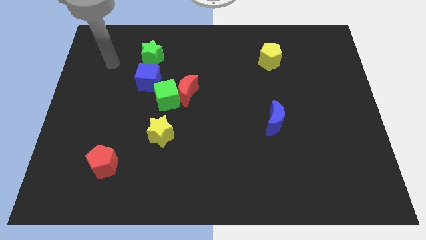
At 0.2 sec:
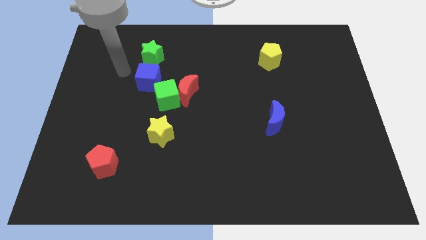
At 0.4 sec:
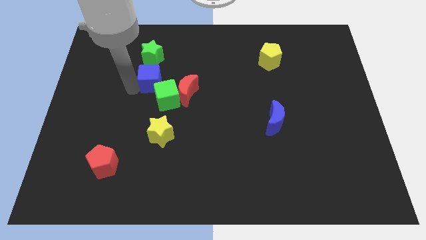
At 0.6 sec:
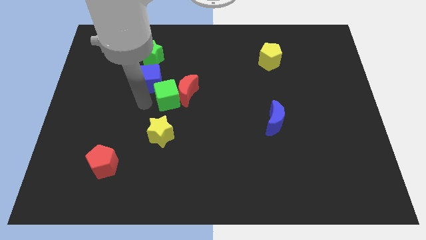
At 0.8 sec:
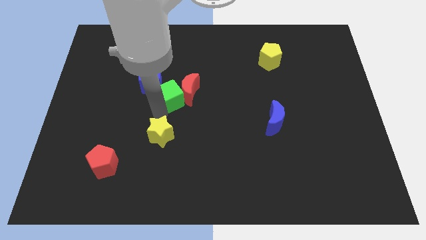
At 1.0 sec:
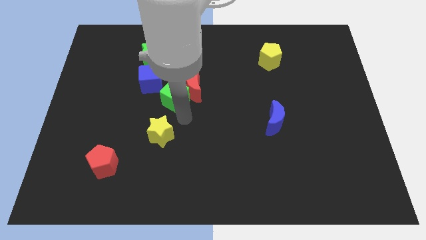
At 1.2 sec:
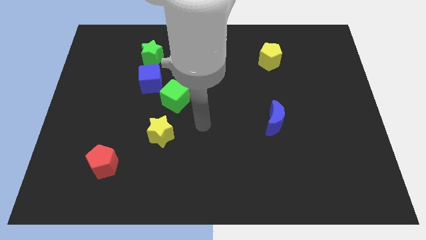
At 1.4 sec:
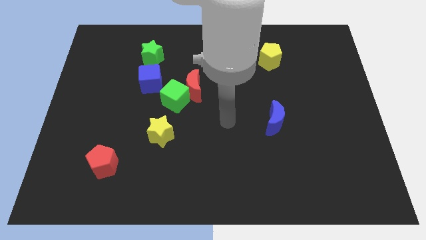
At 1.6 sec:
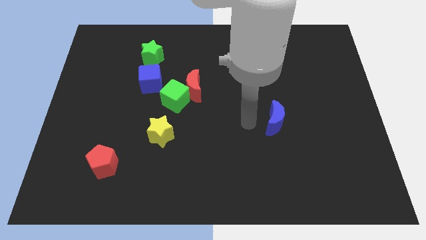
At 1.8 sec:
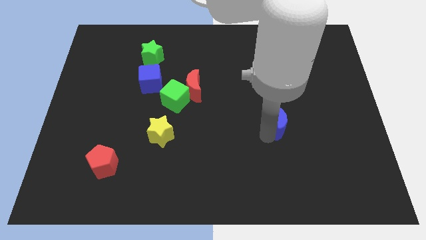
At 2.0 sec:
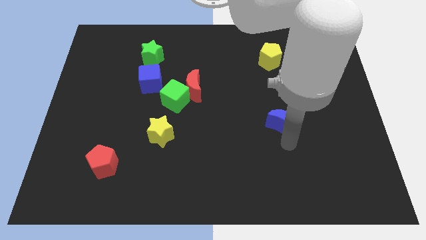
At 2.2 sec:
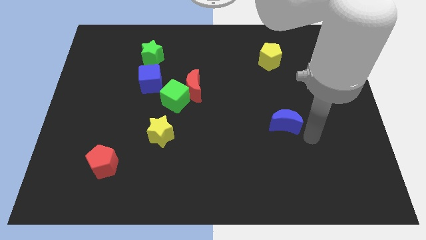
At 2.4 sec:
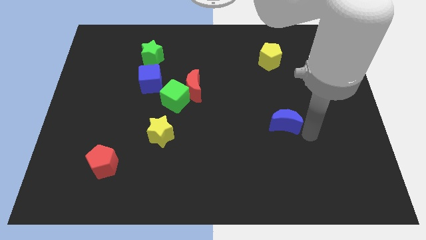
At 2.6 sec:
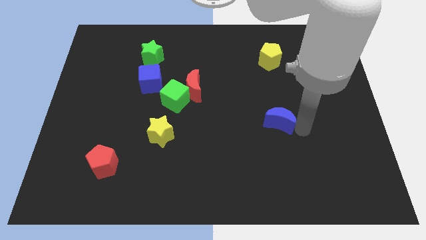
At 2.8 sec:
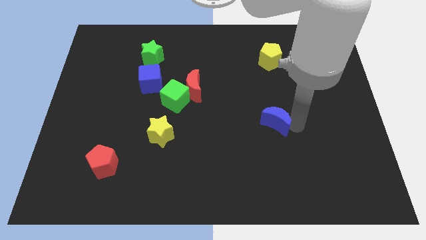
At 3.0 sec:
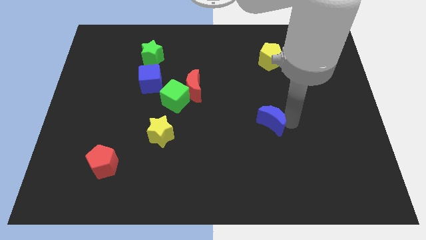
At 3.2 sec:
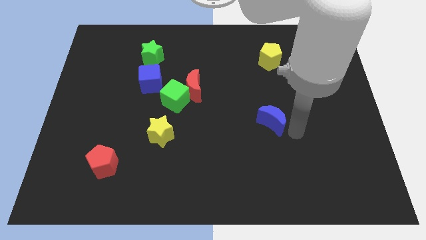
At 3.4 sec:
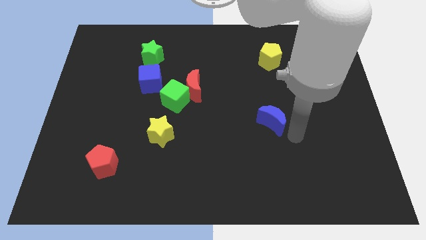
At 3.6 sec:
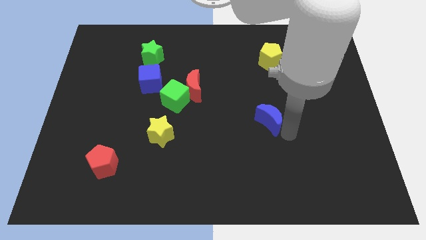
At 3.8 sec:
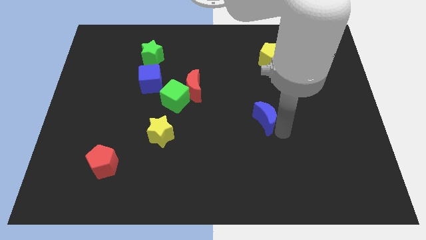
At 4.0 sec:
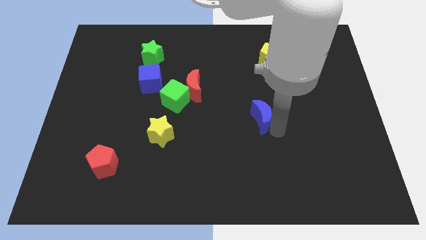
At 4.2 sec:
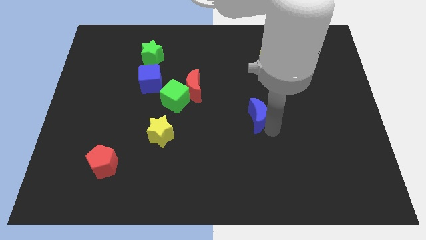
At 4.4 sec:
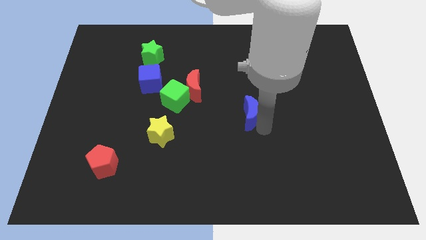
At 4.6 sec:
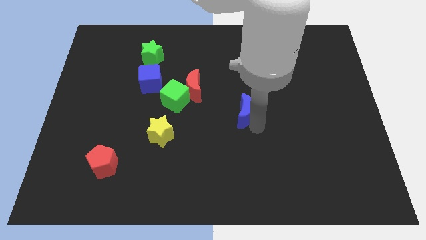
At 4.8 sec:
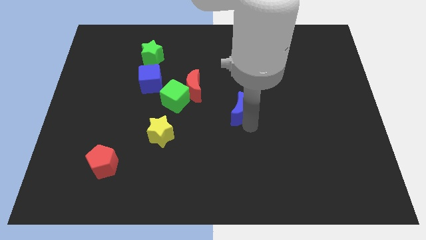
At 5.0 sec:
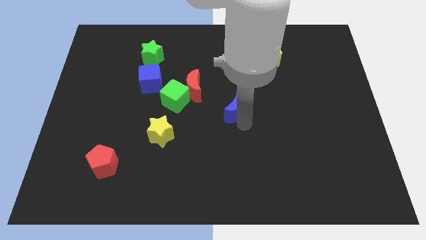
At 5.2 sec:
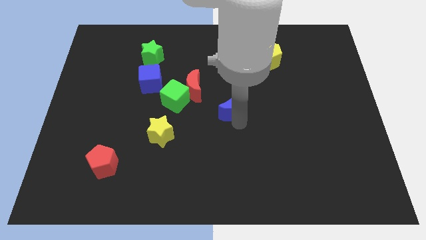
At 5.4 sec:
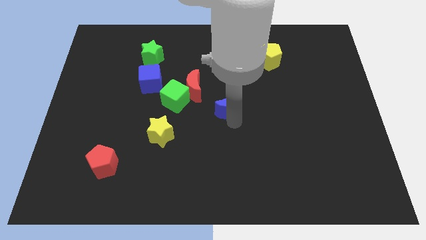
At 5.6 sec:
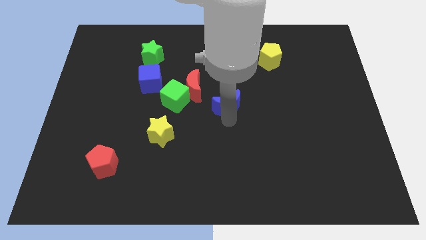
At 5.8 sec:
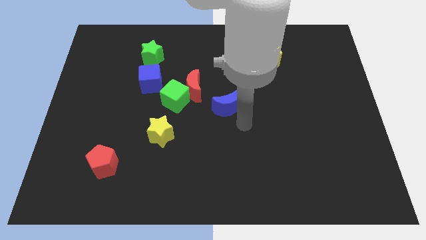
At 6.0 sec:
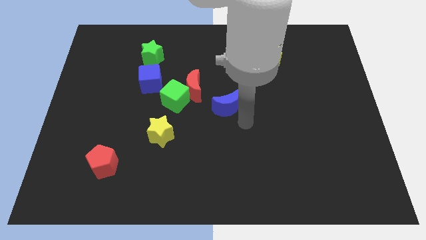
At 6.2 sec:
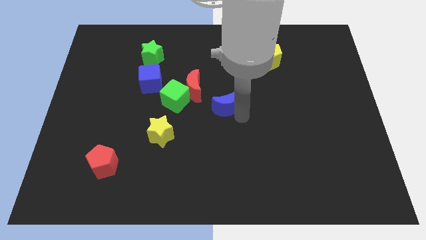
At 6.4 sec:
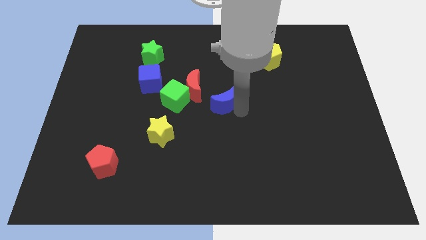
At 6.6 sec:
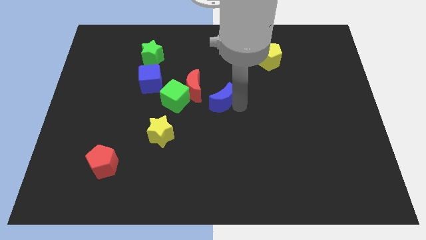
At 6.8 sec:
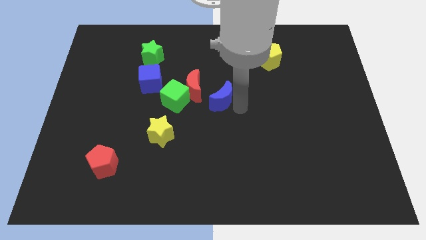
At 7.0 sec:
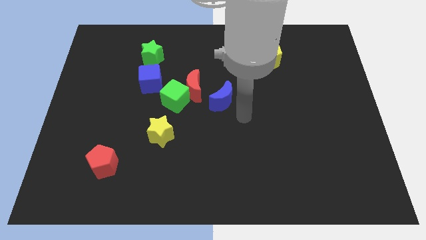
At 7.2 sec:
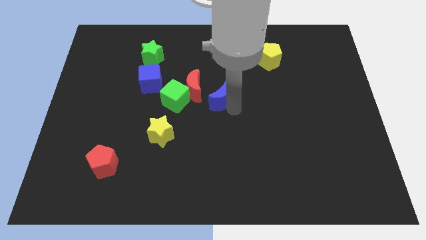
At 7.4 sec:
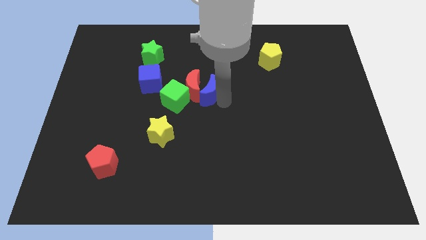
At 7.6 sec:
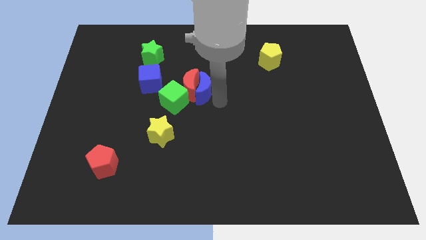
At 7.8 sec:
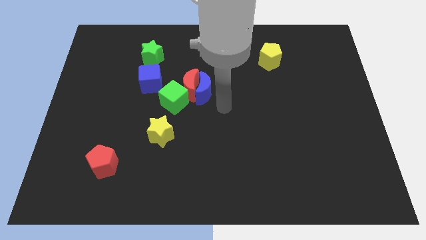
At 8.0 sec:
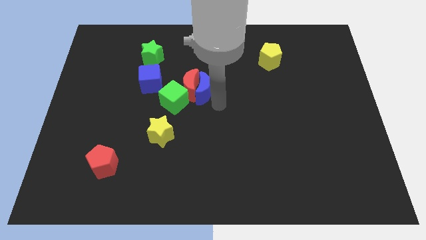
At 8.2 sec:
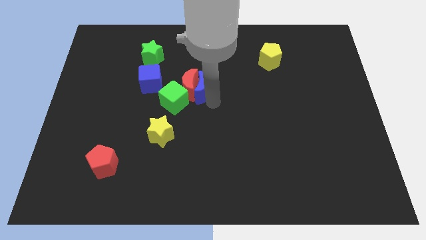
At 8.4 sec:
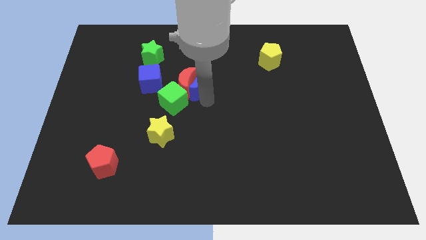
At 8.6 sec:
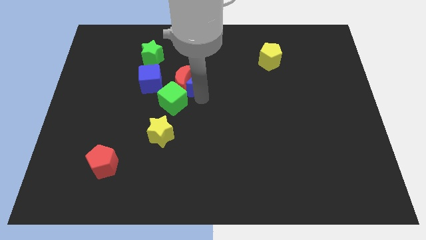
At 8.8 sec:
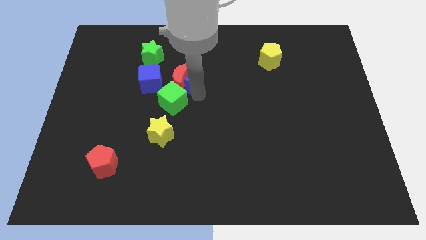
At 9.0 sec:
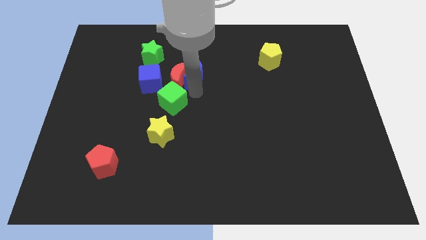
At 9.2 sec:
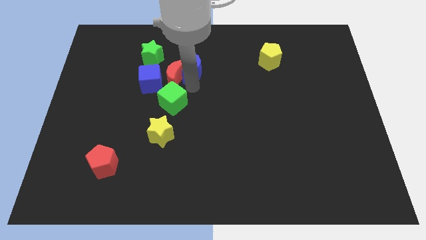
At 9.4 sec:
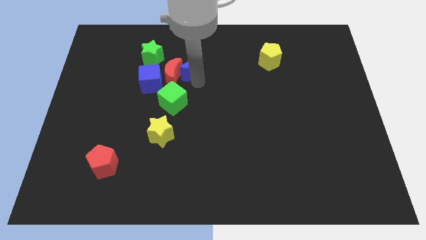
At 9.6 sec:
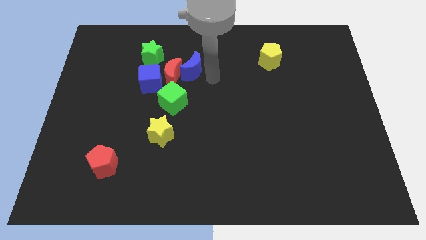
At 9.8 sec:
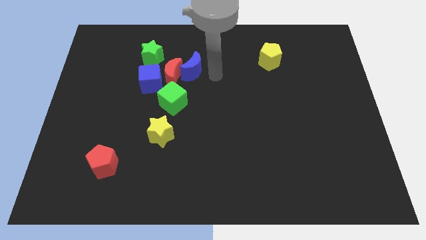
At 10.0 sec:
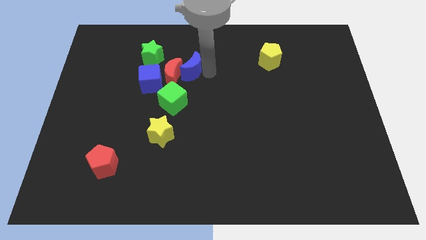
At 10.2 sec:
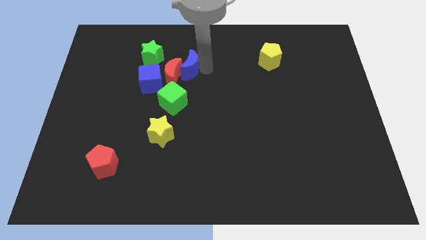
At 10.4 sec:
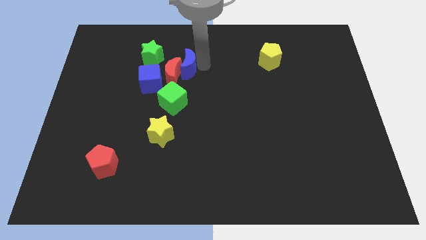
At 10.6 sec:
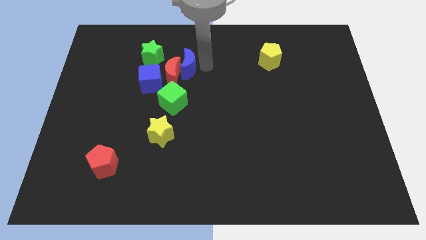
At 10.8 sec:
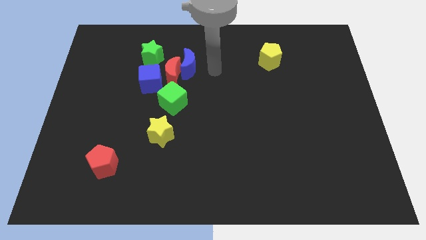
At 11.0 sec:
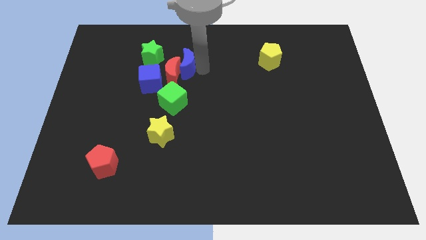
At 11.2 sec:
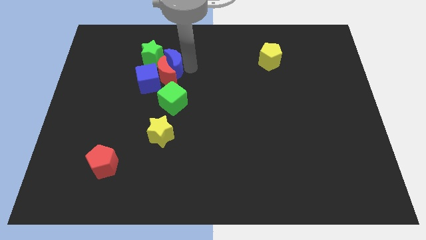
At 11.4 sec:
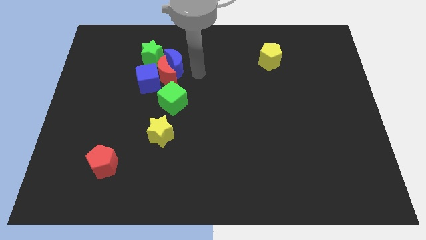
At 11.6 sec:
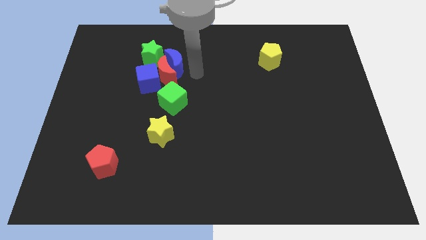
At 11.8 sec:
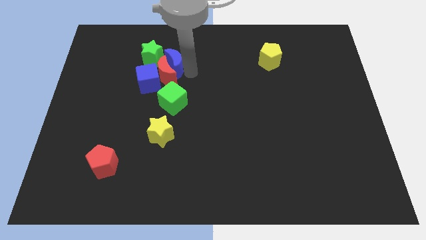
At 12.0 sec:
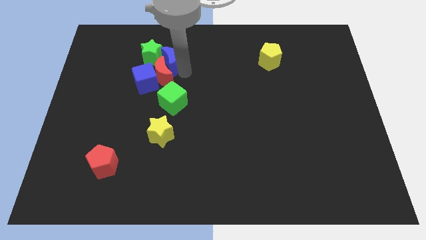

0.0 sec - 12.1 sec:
move the blue moon close to the green star
